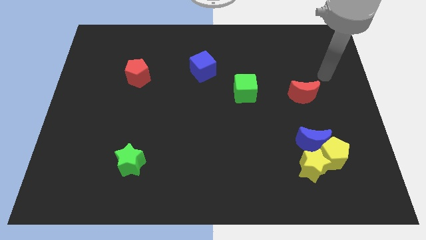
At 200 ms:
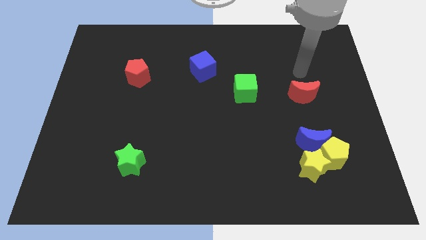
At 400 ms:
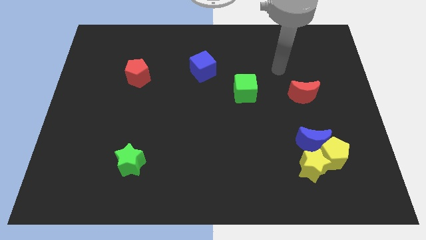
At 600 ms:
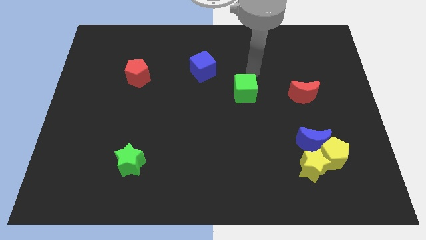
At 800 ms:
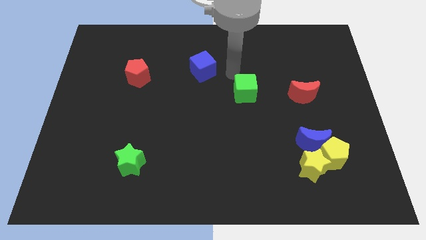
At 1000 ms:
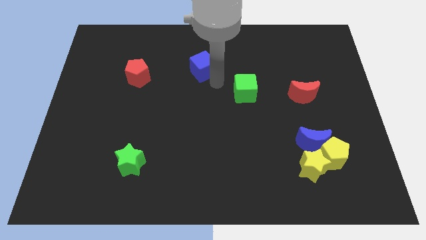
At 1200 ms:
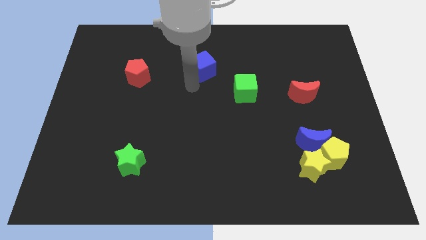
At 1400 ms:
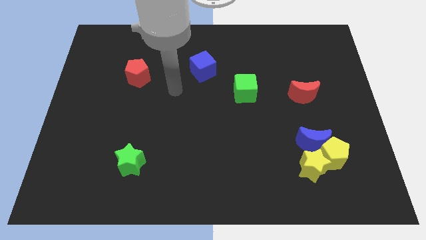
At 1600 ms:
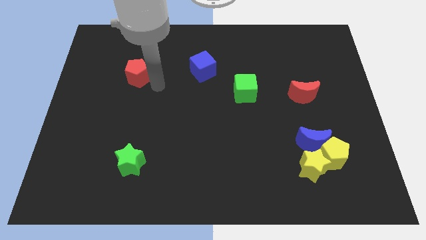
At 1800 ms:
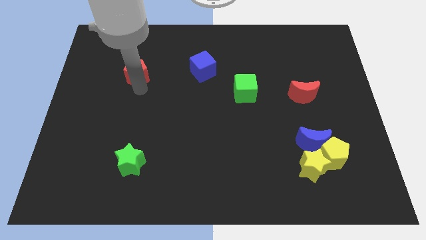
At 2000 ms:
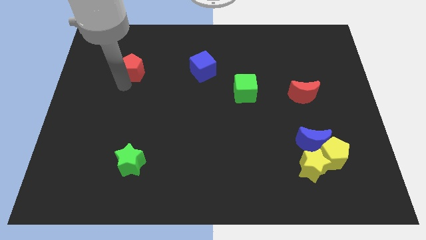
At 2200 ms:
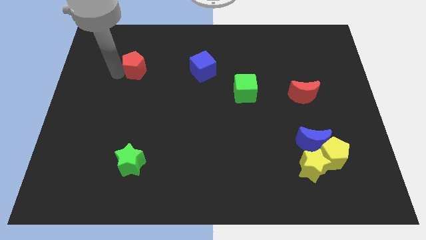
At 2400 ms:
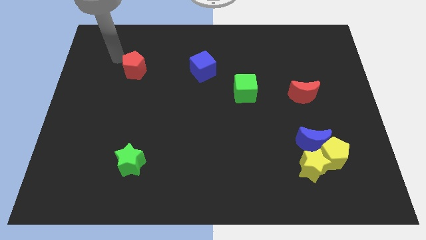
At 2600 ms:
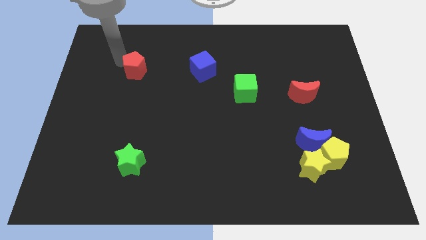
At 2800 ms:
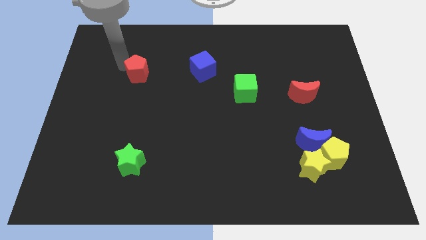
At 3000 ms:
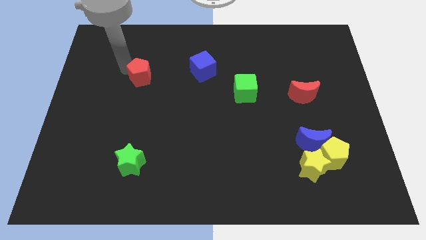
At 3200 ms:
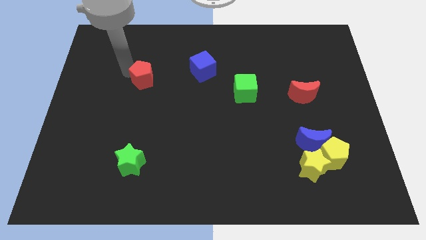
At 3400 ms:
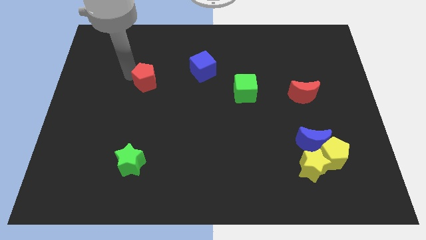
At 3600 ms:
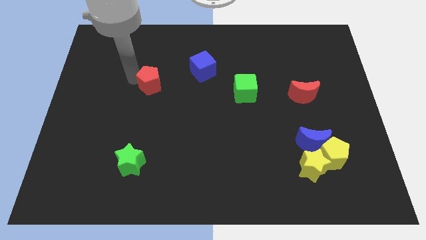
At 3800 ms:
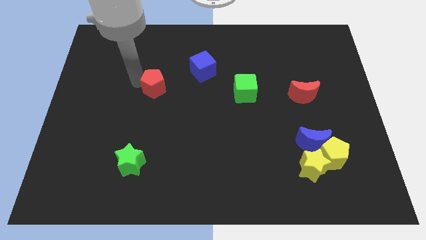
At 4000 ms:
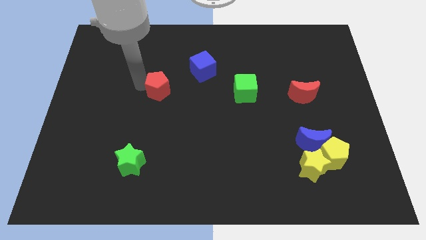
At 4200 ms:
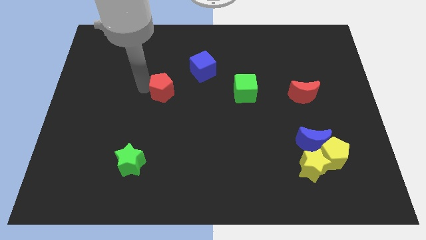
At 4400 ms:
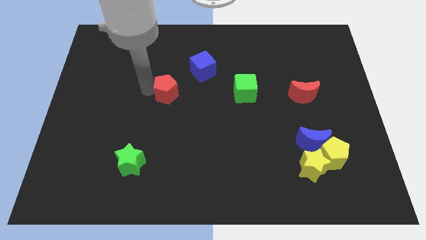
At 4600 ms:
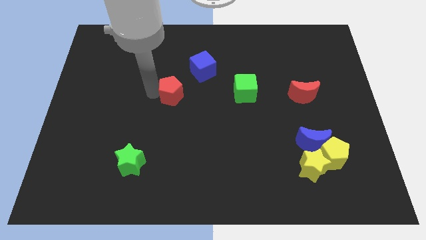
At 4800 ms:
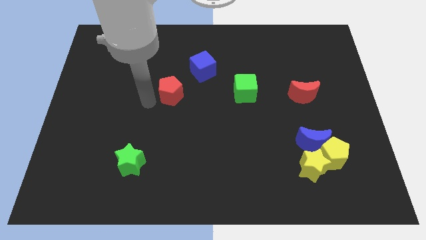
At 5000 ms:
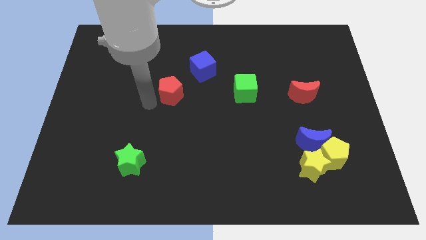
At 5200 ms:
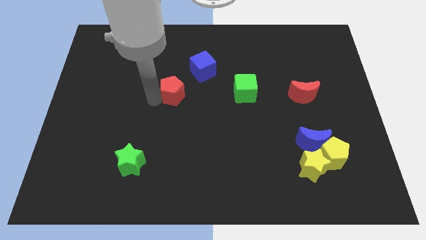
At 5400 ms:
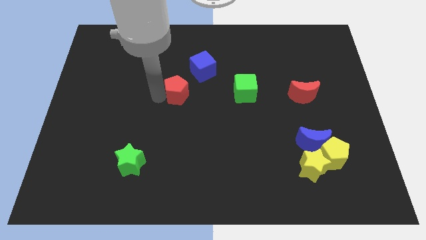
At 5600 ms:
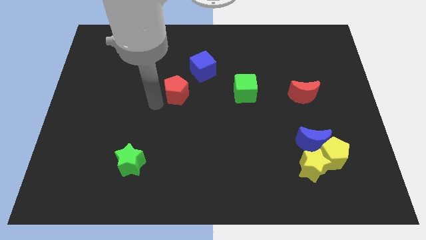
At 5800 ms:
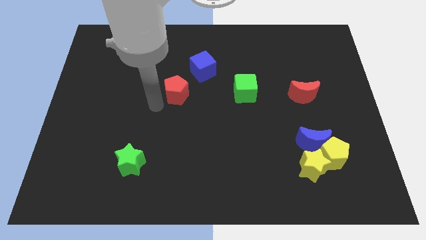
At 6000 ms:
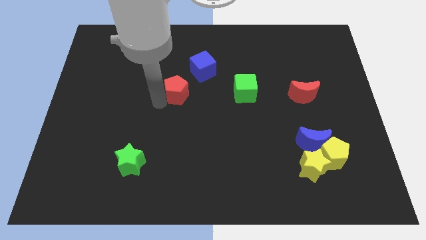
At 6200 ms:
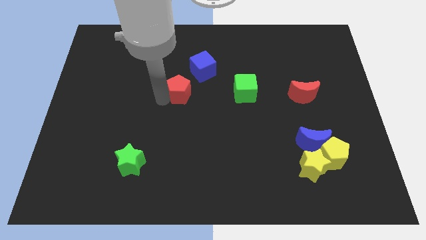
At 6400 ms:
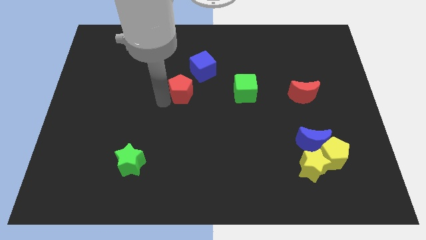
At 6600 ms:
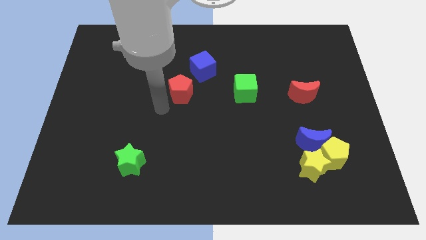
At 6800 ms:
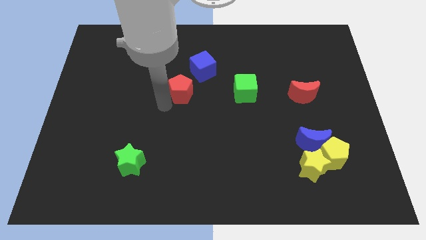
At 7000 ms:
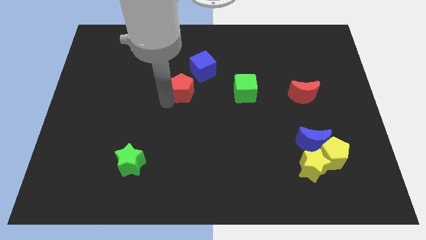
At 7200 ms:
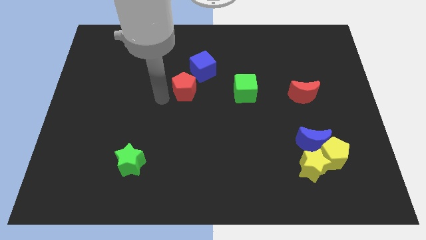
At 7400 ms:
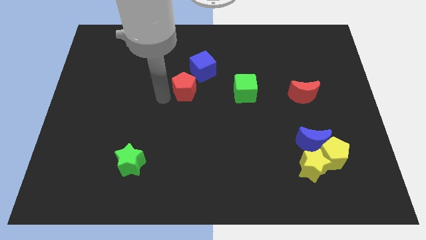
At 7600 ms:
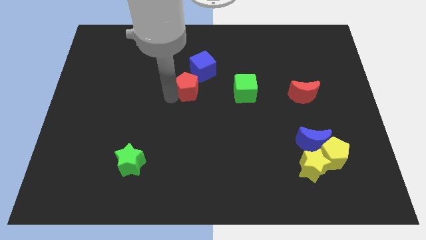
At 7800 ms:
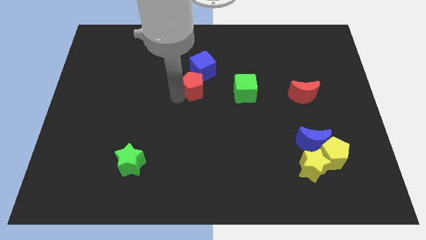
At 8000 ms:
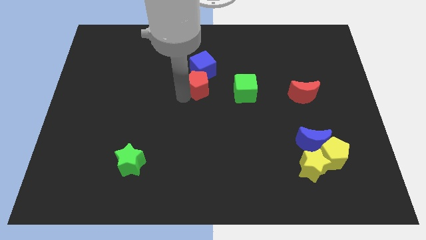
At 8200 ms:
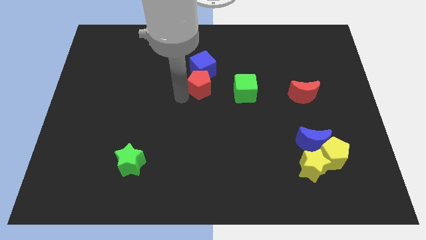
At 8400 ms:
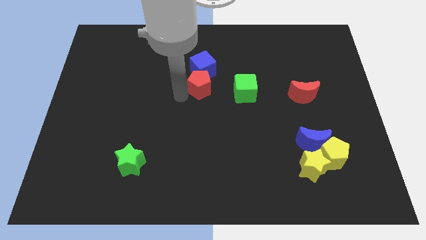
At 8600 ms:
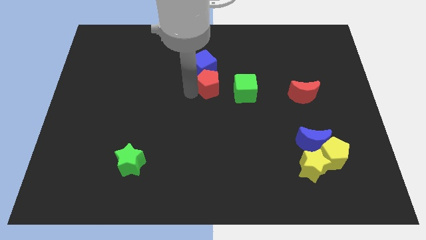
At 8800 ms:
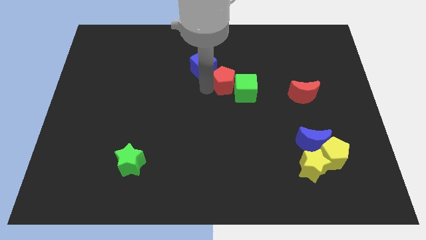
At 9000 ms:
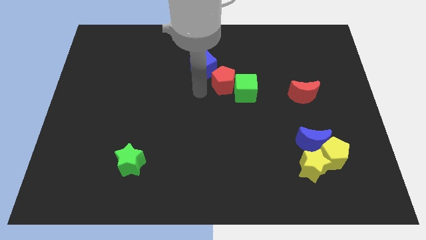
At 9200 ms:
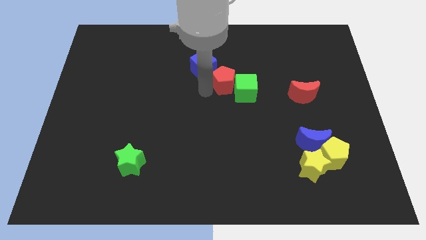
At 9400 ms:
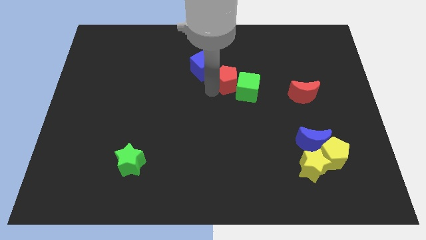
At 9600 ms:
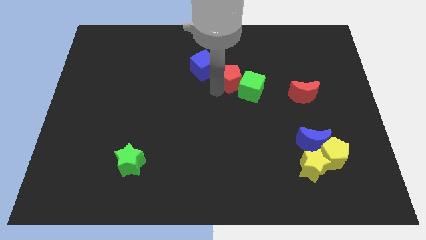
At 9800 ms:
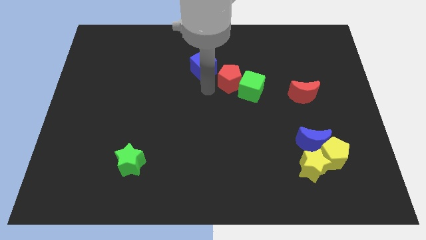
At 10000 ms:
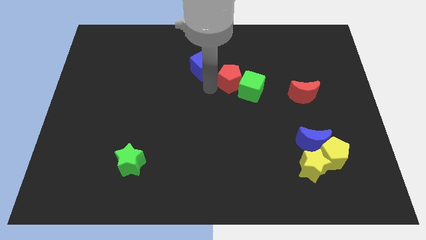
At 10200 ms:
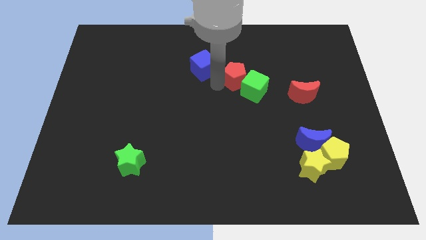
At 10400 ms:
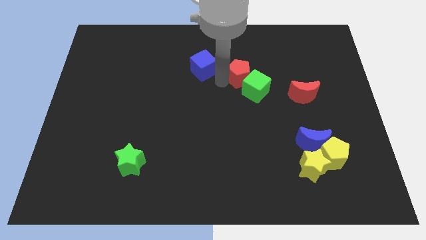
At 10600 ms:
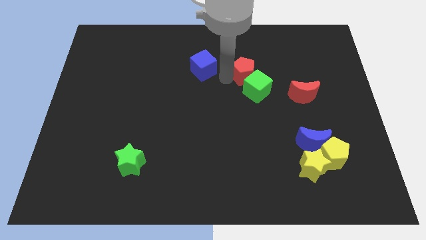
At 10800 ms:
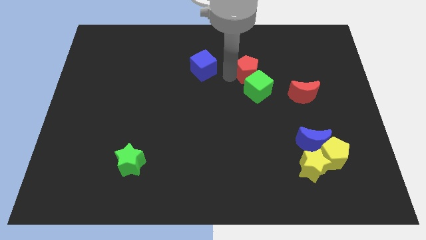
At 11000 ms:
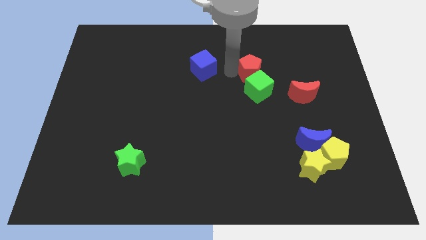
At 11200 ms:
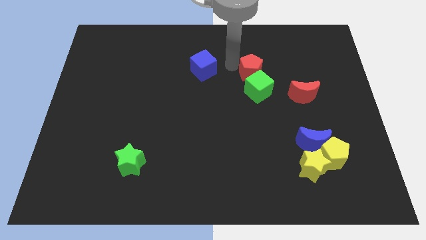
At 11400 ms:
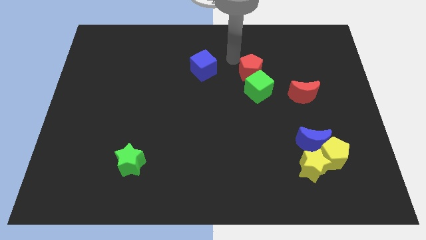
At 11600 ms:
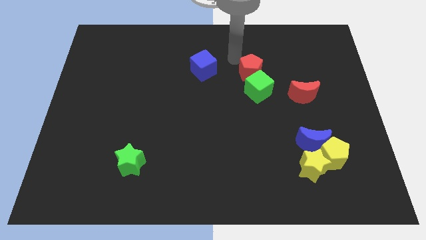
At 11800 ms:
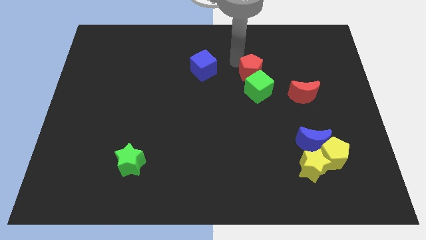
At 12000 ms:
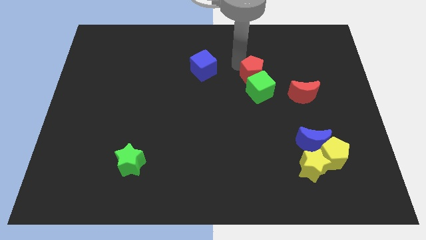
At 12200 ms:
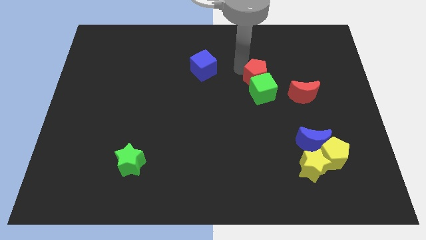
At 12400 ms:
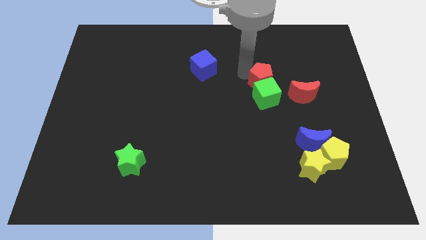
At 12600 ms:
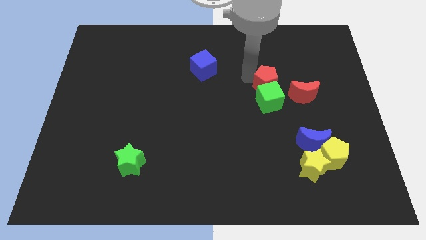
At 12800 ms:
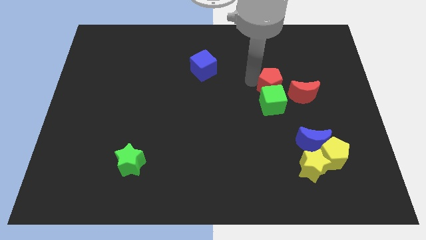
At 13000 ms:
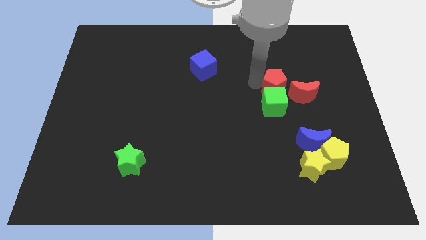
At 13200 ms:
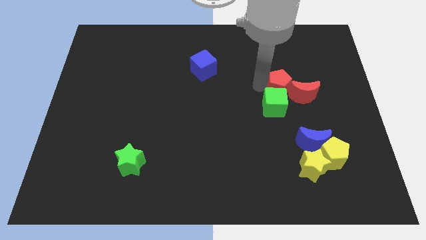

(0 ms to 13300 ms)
put the red pentagon to the red moon

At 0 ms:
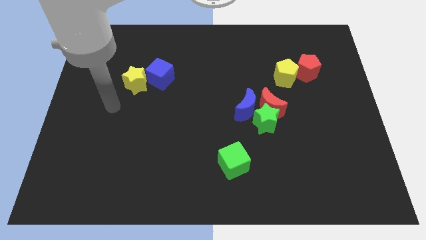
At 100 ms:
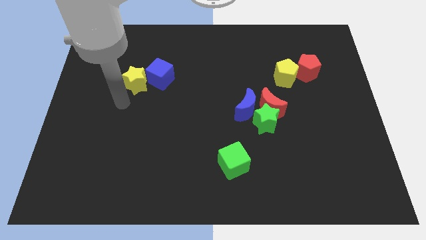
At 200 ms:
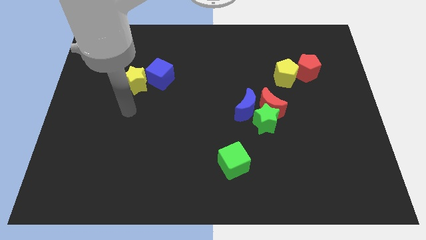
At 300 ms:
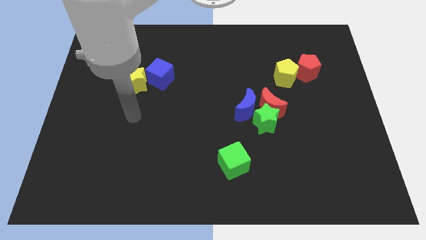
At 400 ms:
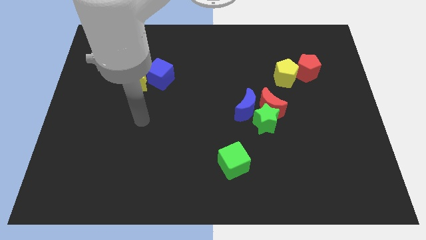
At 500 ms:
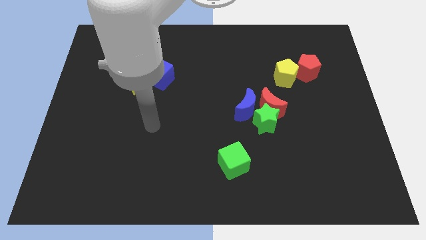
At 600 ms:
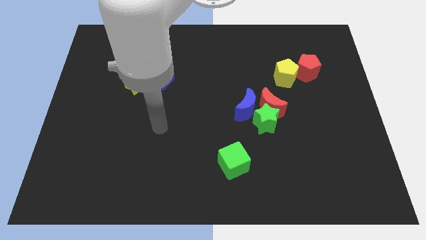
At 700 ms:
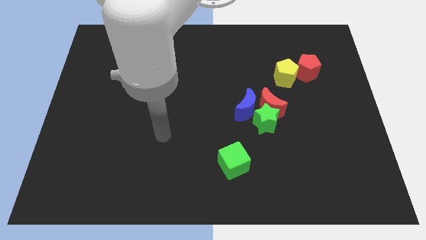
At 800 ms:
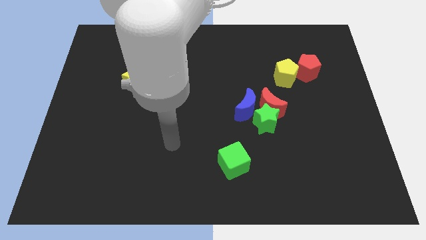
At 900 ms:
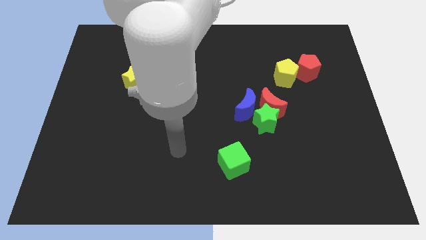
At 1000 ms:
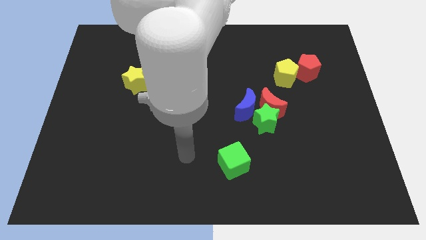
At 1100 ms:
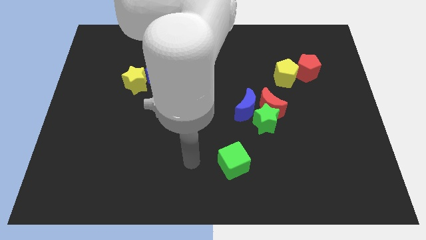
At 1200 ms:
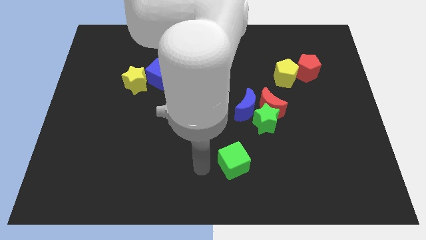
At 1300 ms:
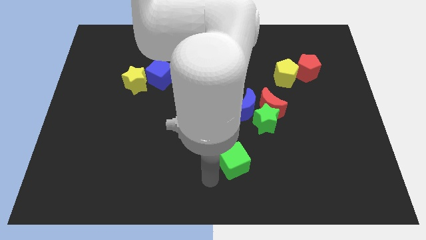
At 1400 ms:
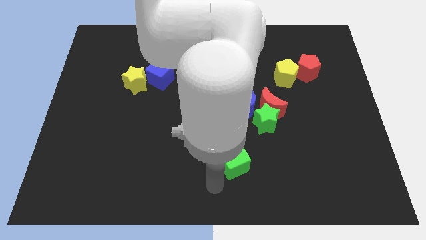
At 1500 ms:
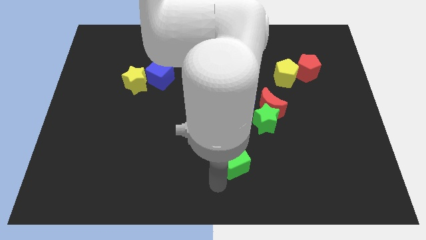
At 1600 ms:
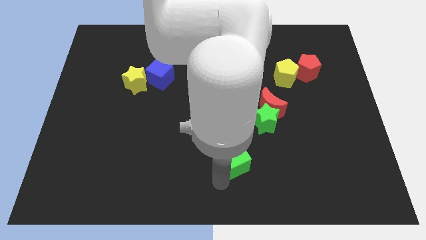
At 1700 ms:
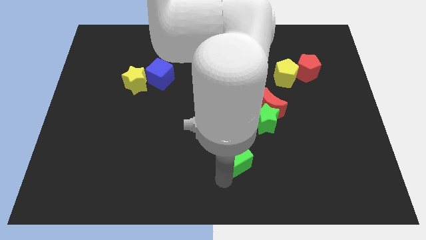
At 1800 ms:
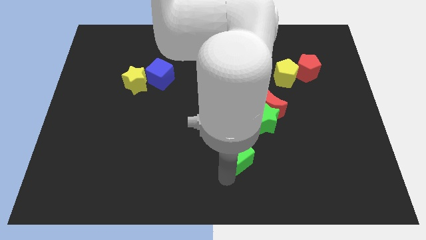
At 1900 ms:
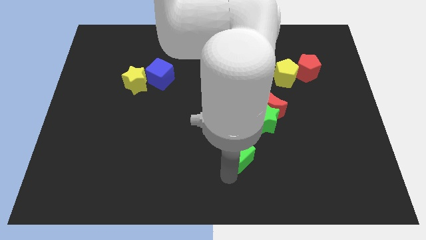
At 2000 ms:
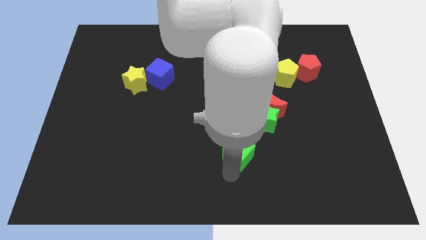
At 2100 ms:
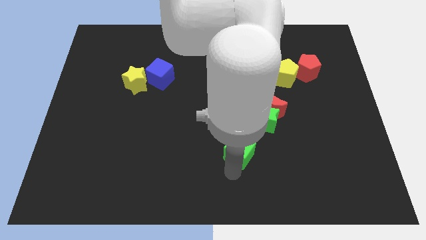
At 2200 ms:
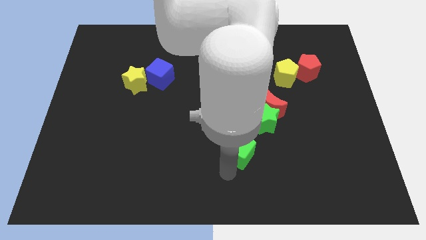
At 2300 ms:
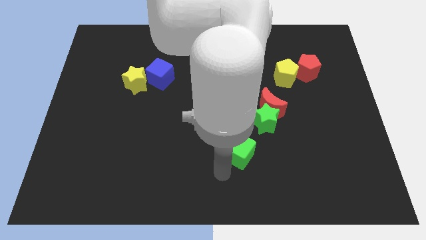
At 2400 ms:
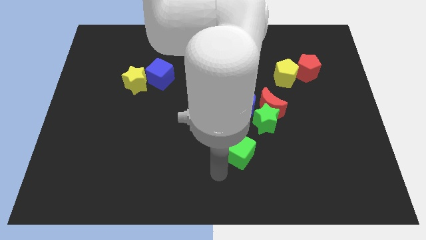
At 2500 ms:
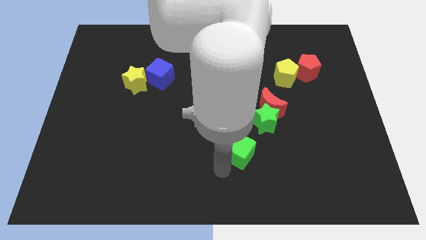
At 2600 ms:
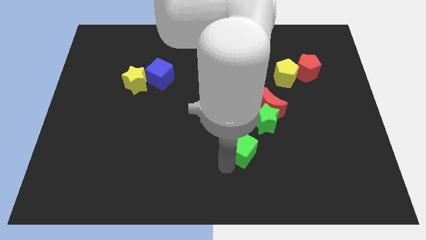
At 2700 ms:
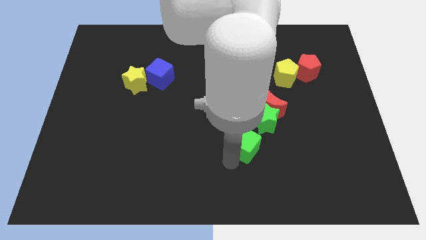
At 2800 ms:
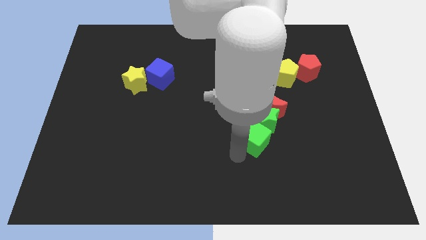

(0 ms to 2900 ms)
slide the green cube towards the green star
